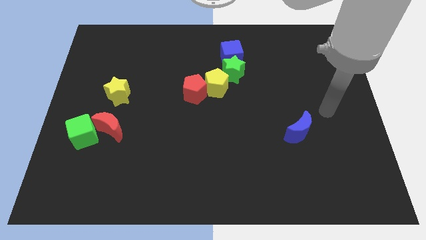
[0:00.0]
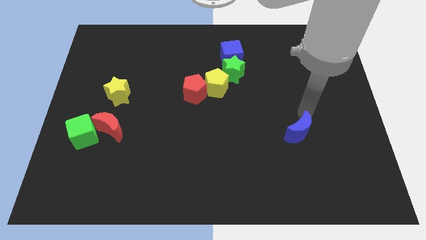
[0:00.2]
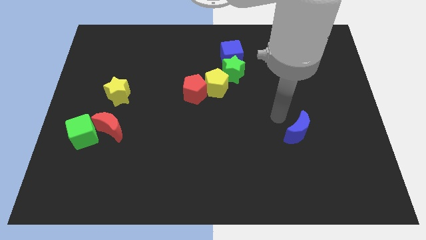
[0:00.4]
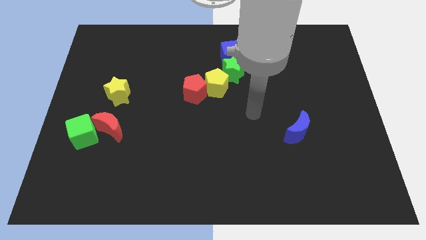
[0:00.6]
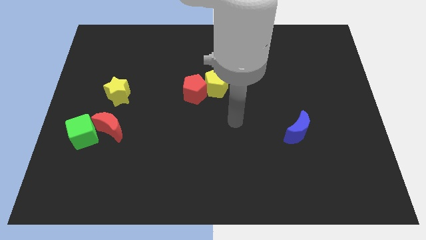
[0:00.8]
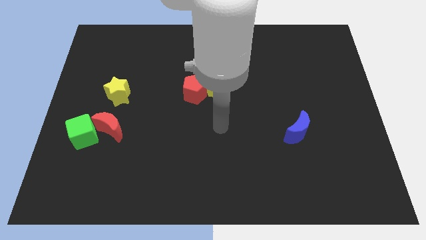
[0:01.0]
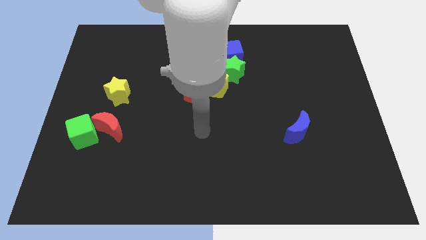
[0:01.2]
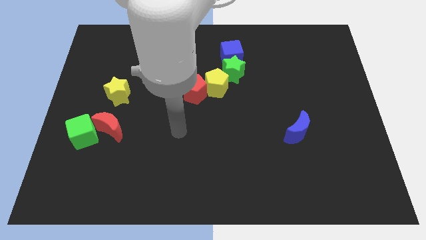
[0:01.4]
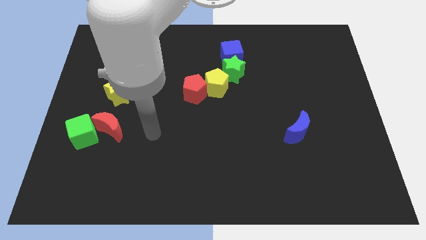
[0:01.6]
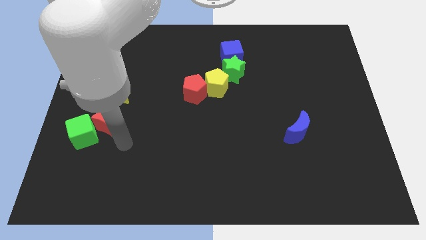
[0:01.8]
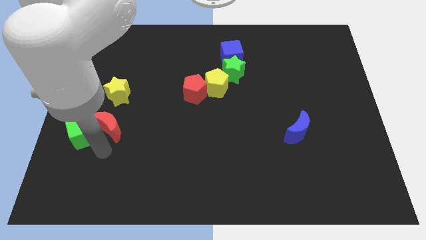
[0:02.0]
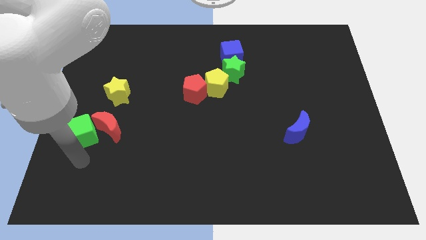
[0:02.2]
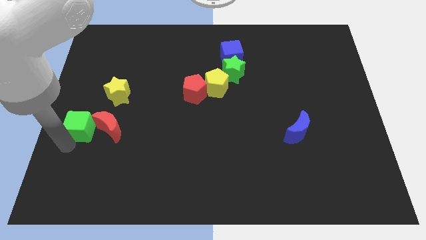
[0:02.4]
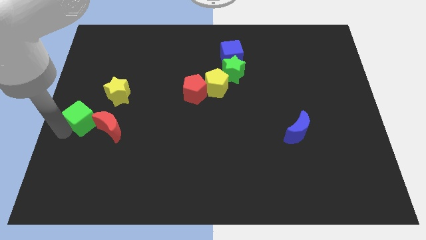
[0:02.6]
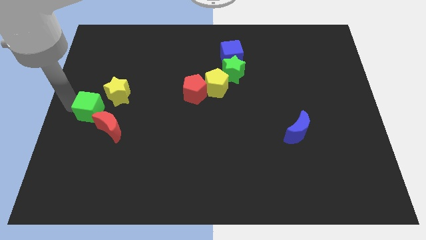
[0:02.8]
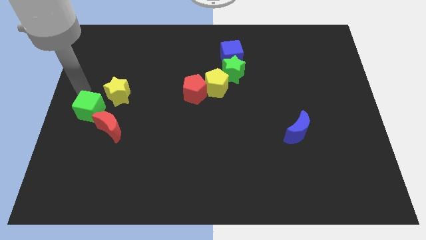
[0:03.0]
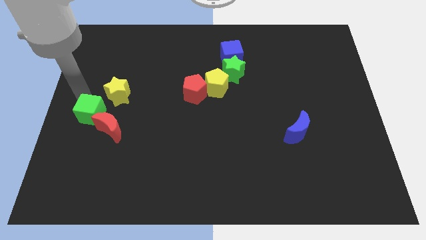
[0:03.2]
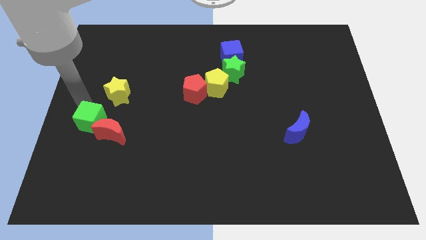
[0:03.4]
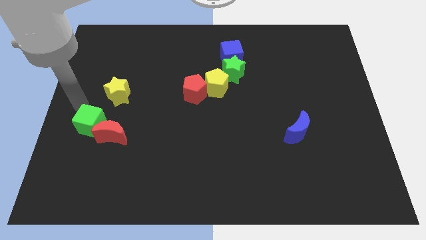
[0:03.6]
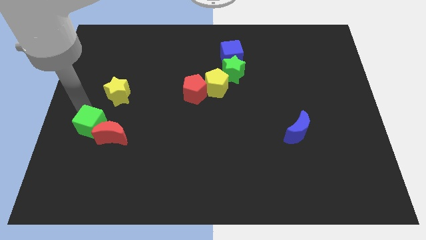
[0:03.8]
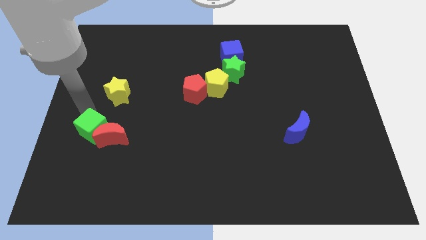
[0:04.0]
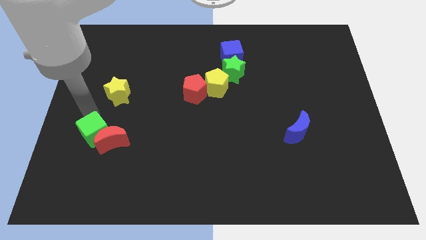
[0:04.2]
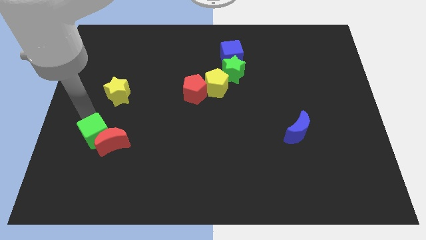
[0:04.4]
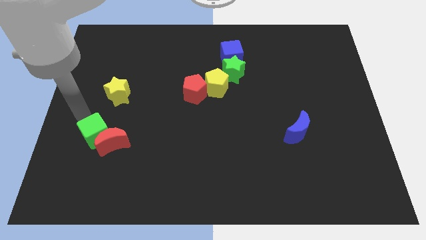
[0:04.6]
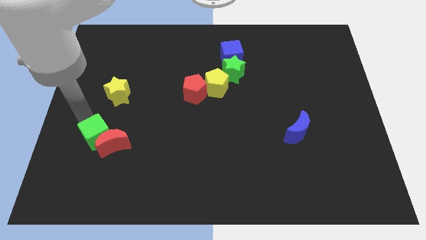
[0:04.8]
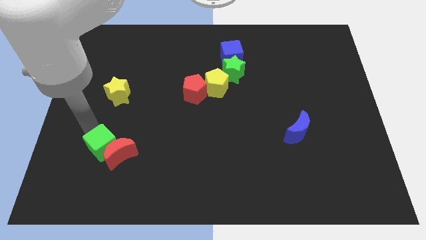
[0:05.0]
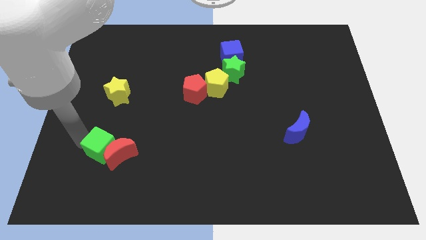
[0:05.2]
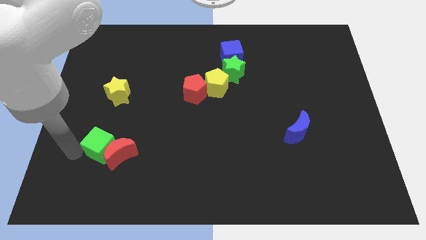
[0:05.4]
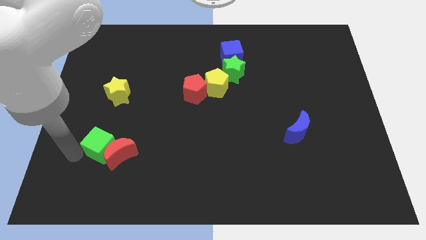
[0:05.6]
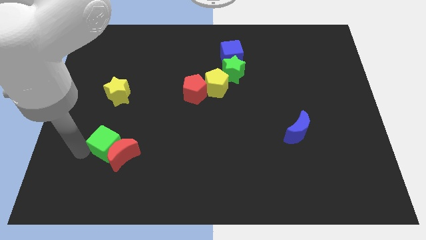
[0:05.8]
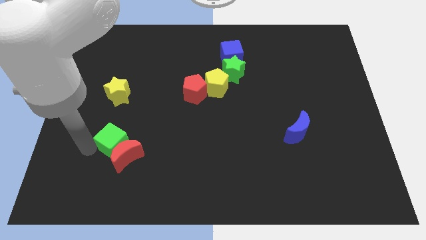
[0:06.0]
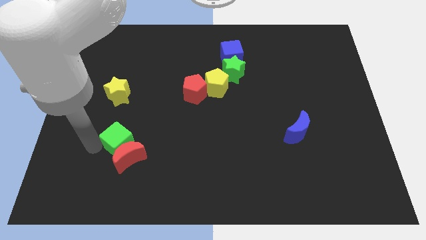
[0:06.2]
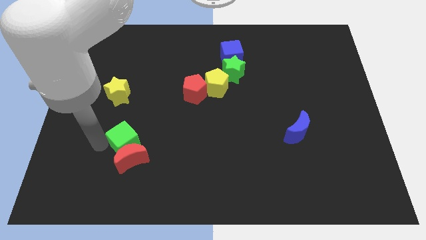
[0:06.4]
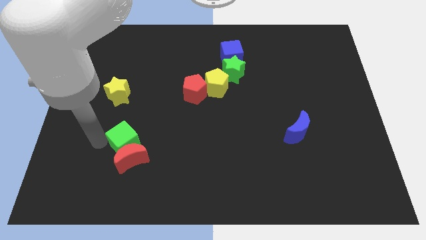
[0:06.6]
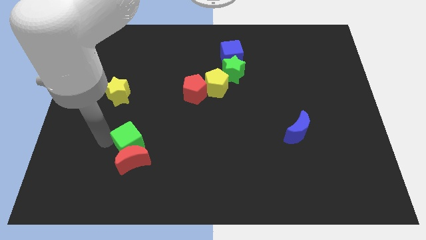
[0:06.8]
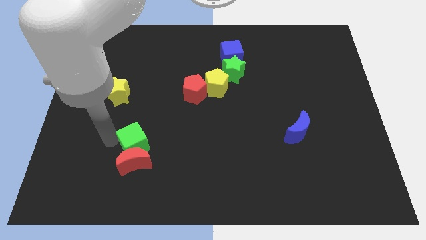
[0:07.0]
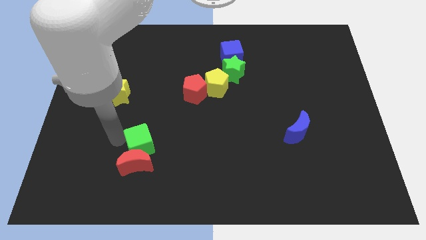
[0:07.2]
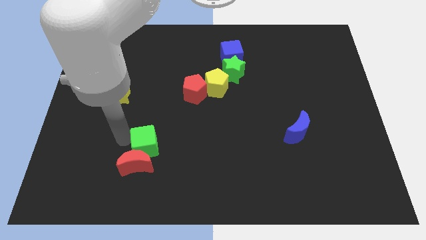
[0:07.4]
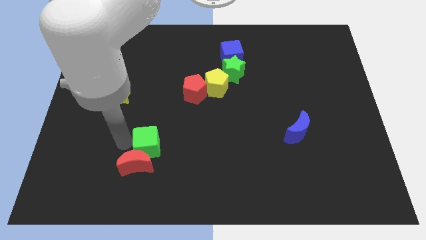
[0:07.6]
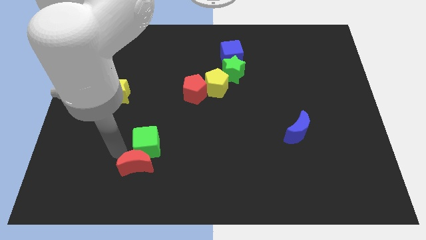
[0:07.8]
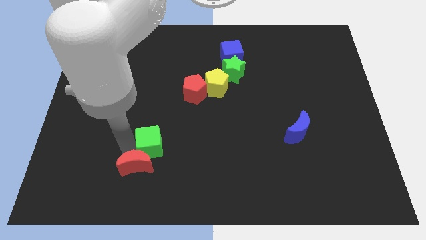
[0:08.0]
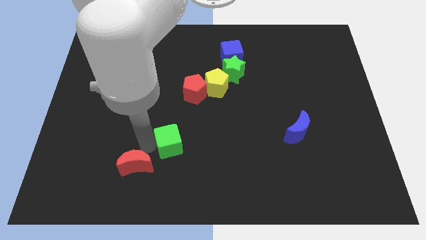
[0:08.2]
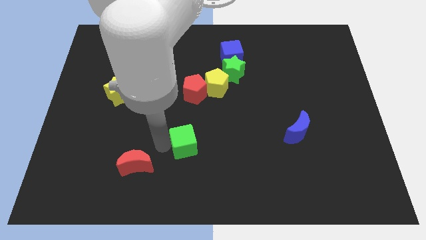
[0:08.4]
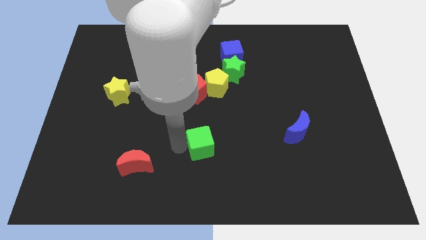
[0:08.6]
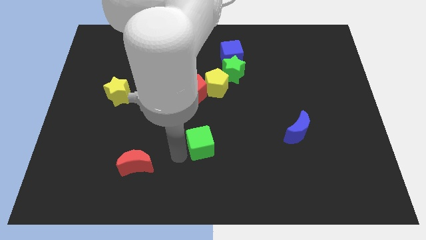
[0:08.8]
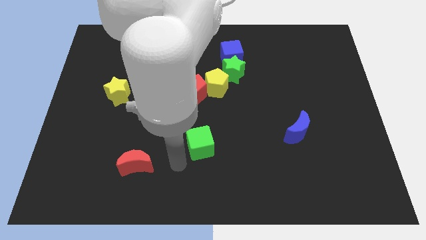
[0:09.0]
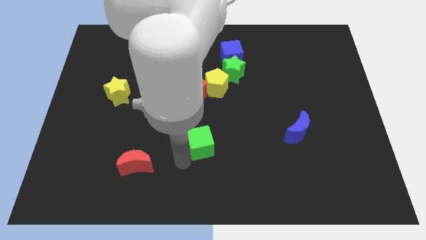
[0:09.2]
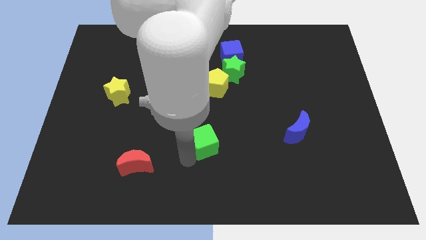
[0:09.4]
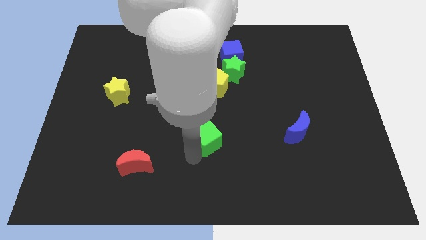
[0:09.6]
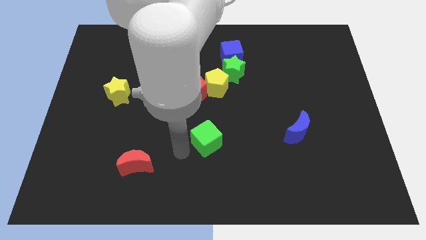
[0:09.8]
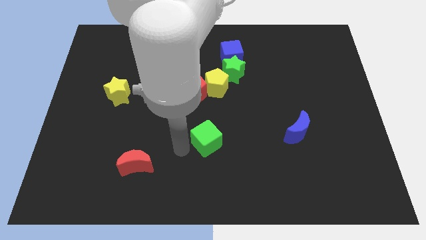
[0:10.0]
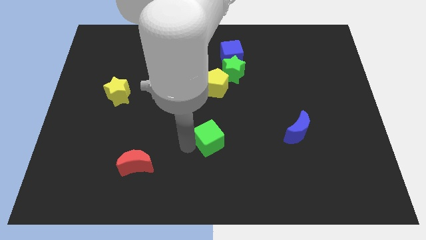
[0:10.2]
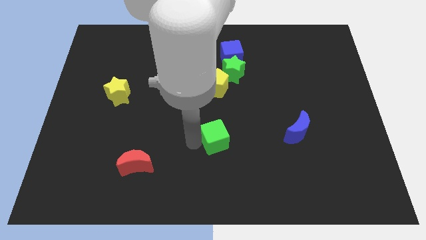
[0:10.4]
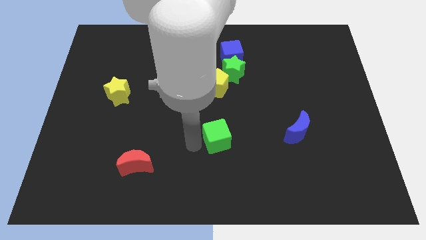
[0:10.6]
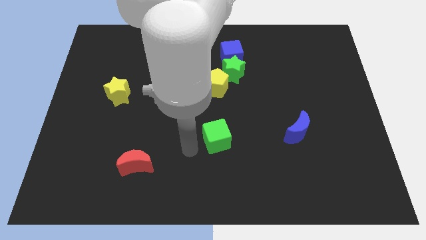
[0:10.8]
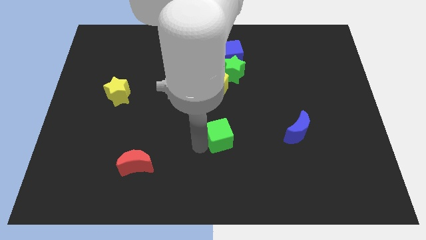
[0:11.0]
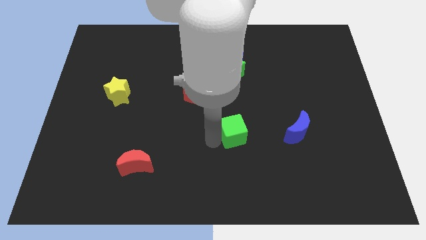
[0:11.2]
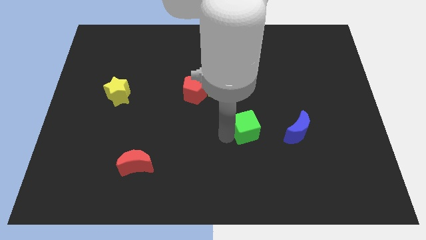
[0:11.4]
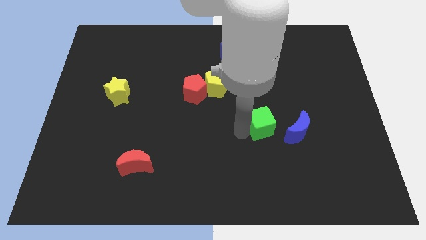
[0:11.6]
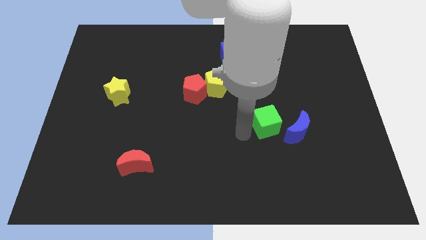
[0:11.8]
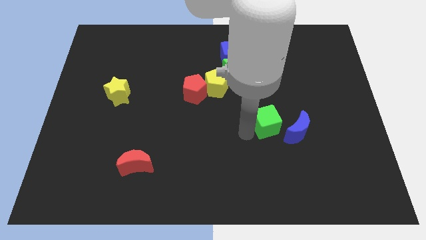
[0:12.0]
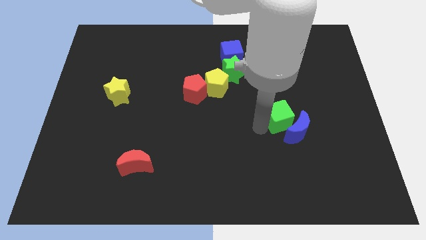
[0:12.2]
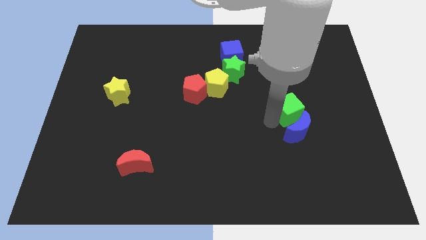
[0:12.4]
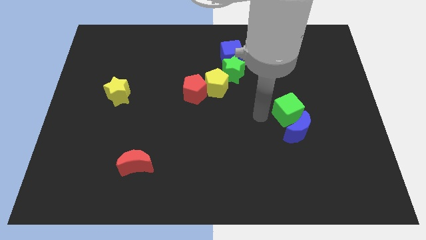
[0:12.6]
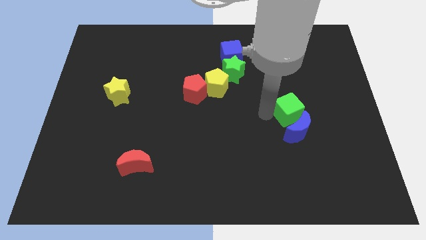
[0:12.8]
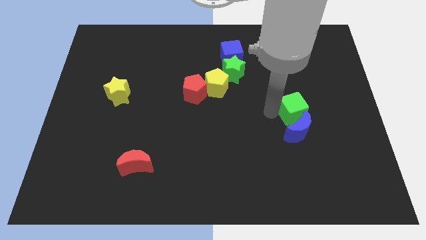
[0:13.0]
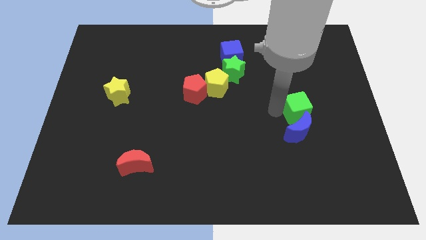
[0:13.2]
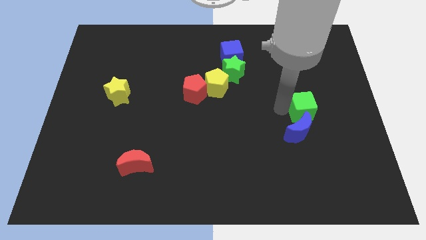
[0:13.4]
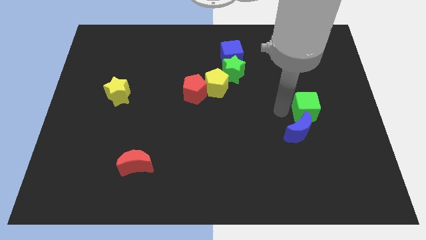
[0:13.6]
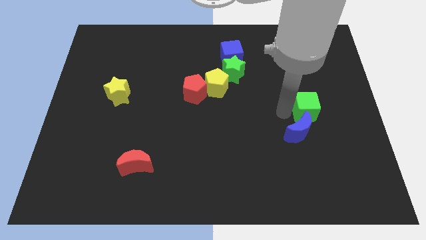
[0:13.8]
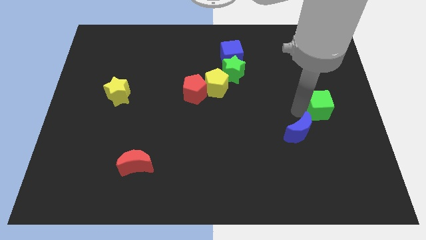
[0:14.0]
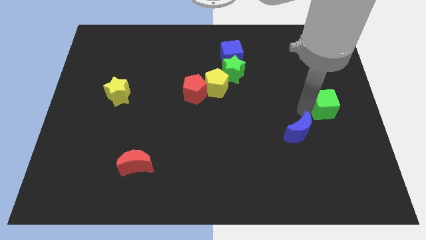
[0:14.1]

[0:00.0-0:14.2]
move the green cube to the right side
